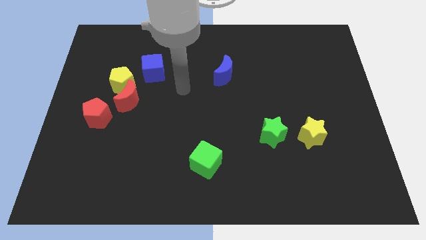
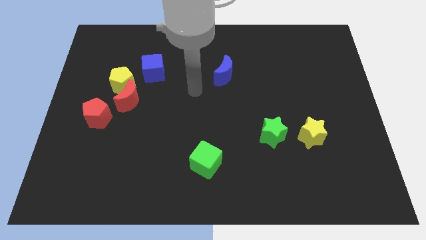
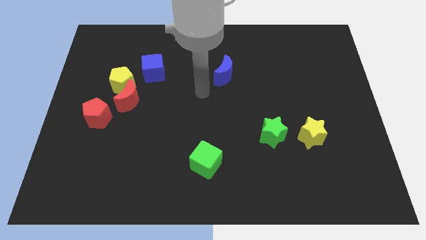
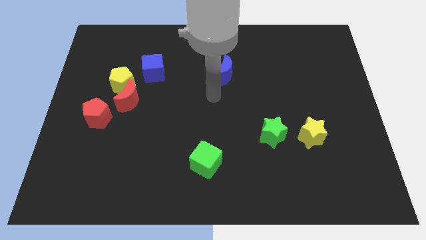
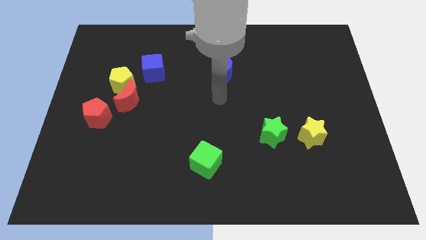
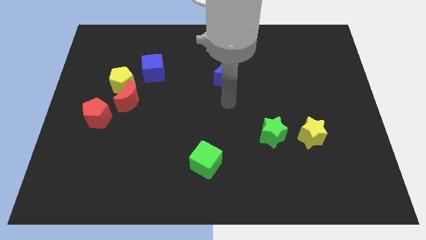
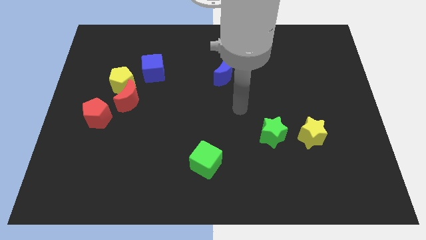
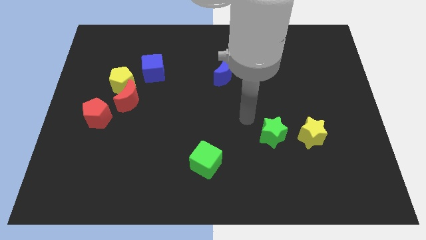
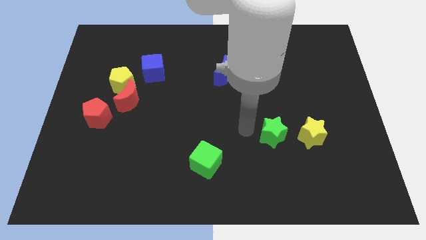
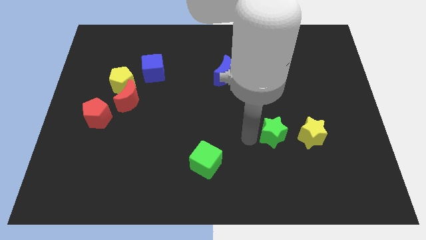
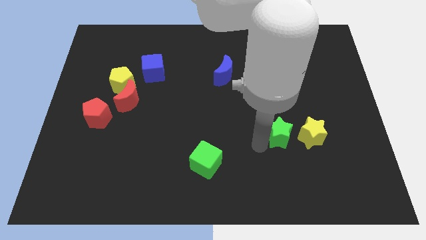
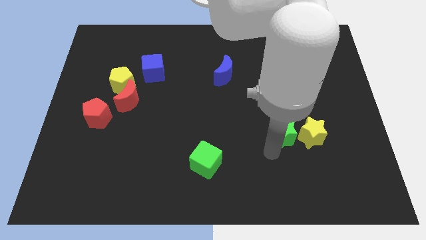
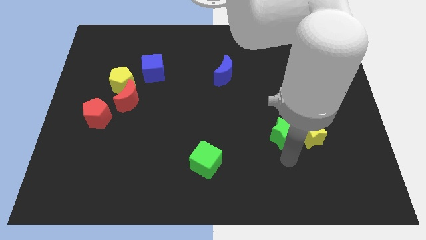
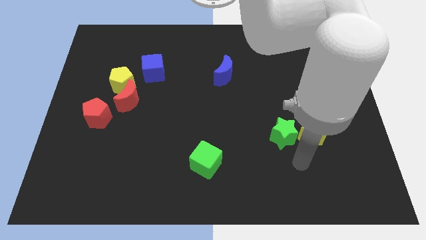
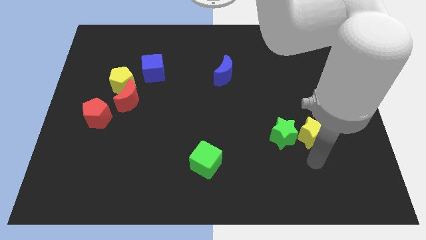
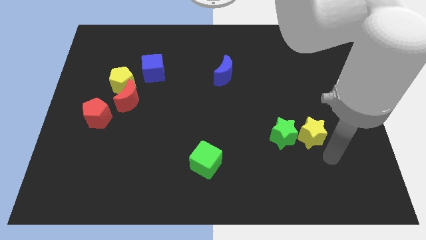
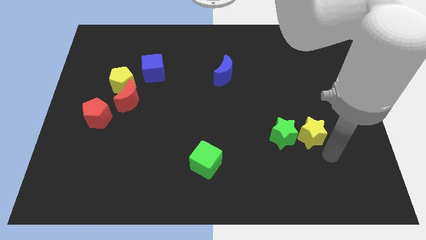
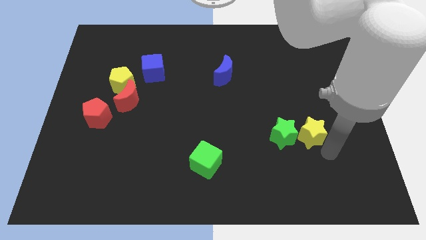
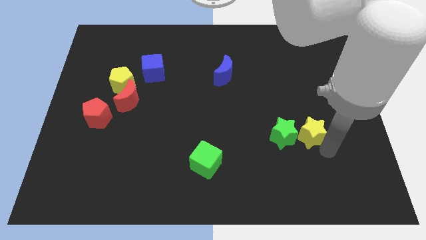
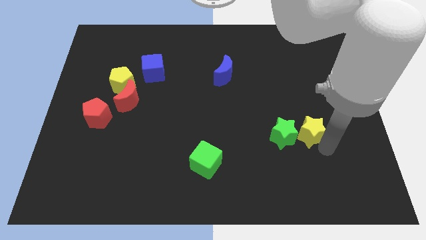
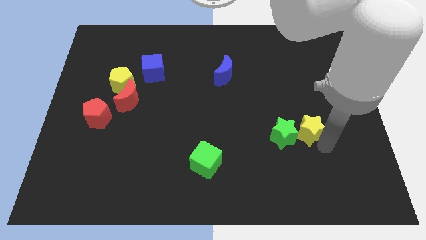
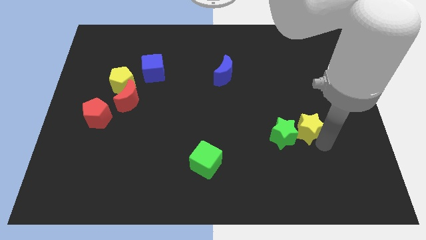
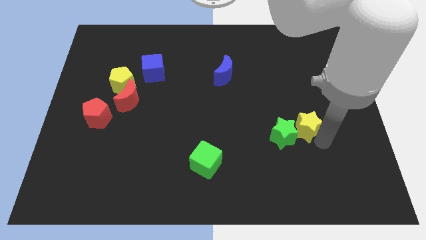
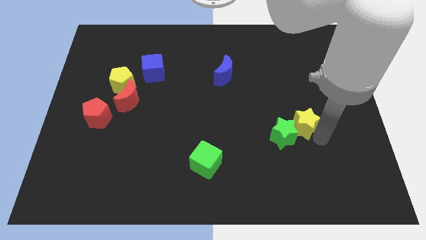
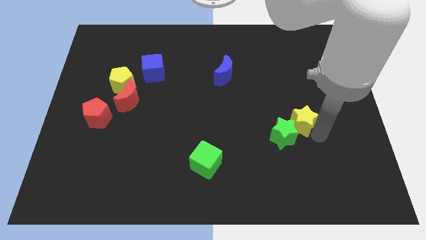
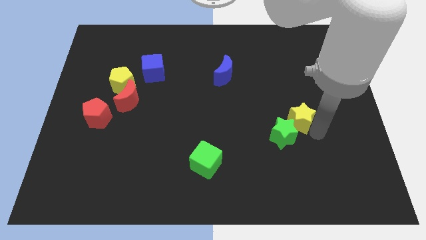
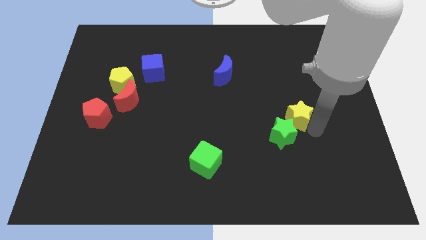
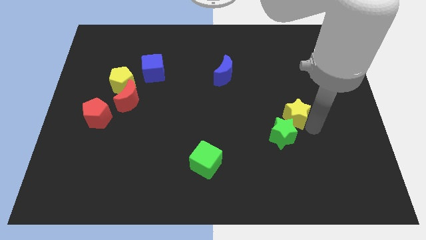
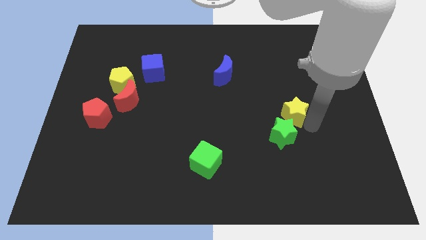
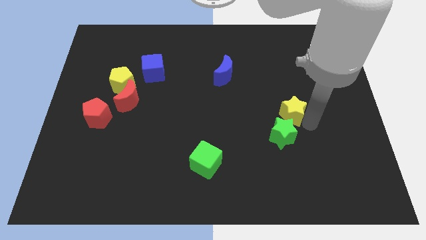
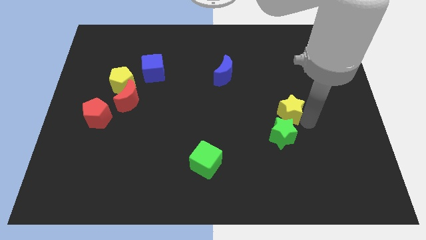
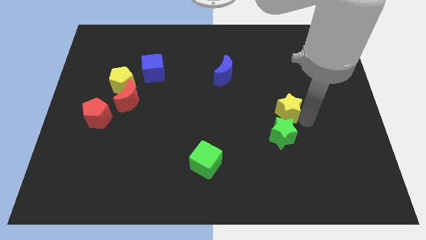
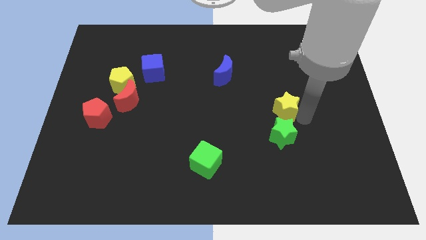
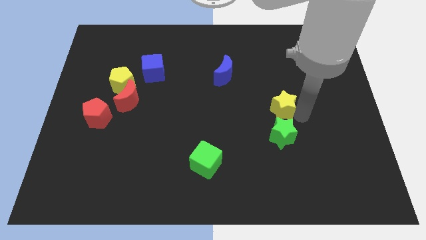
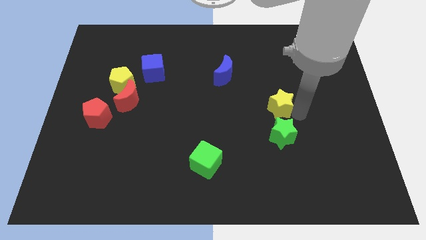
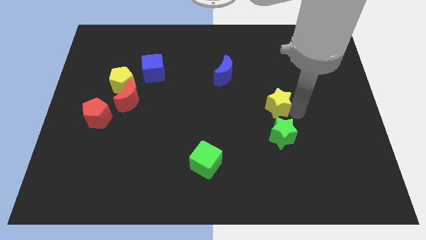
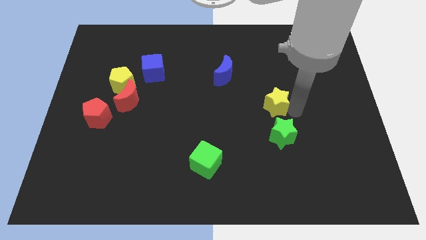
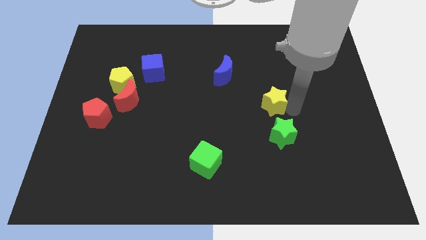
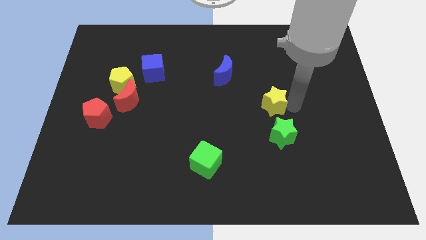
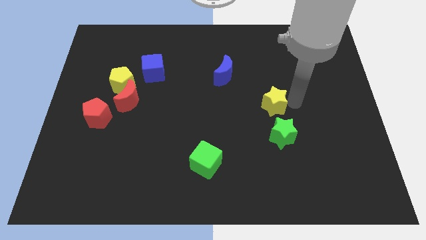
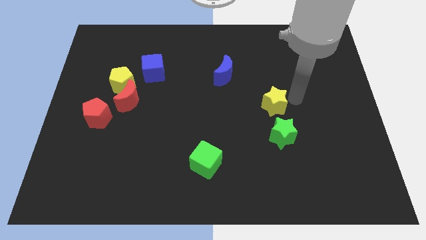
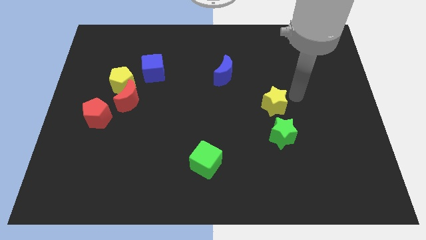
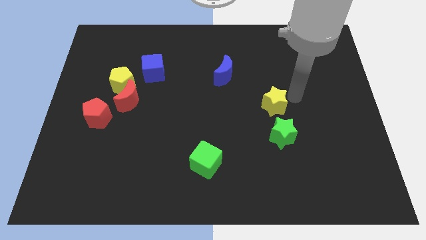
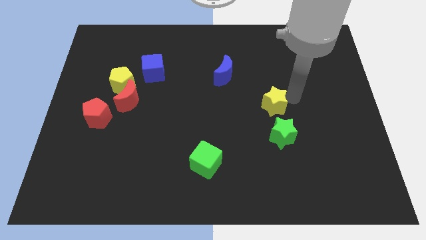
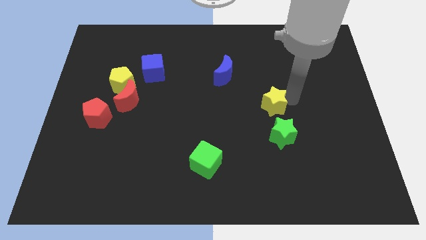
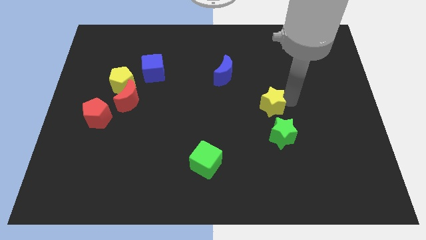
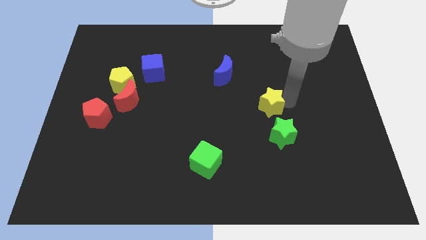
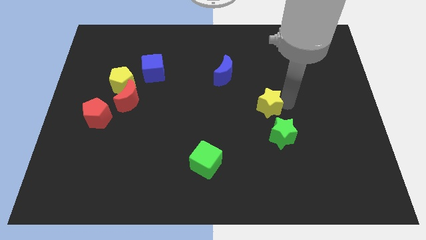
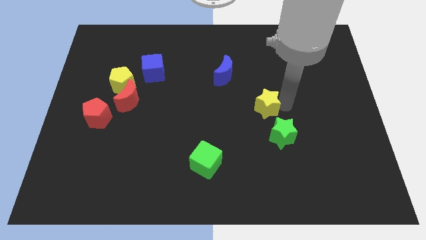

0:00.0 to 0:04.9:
put the yellow star to the middle
